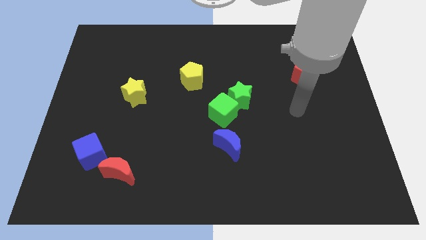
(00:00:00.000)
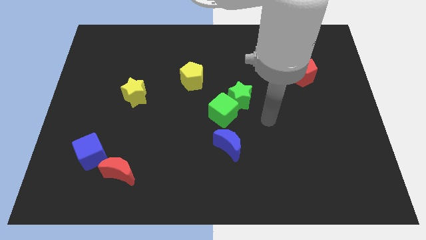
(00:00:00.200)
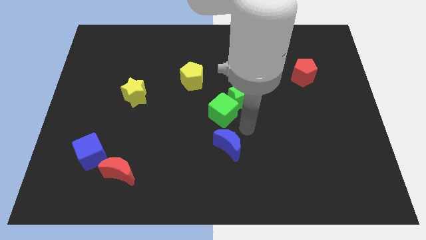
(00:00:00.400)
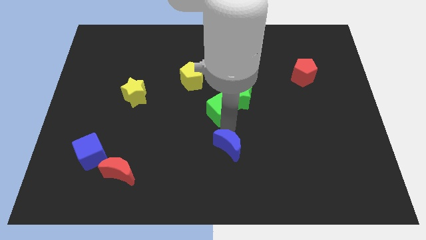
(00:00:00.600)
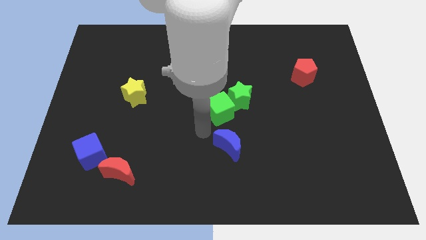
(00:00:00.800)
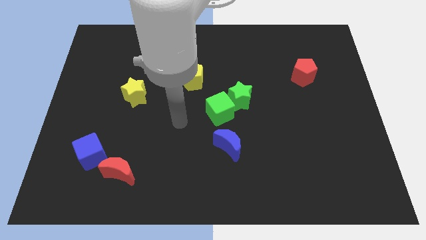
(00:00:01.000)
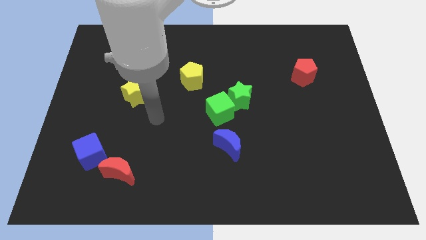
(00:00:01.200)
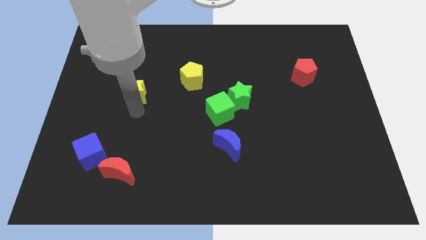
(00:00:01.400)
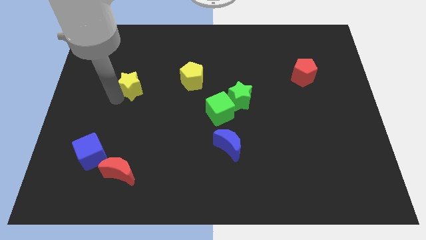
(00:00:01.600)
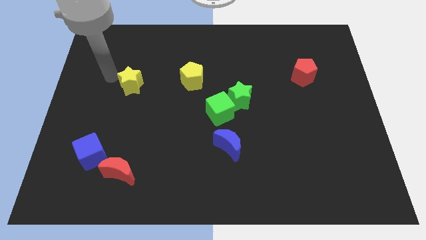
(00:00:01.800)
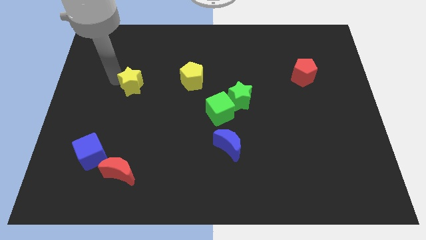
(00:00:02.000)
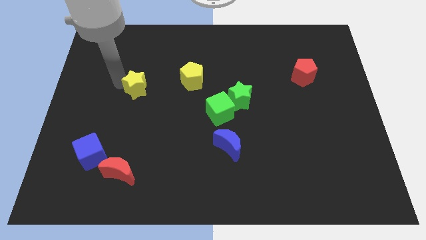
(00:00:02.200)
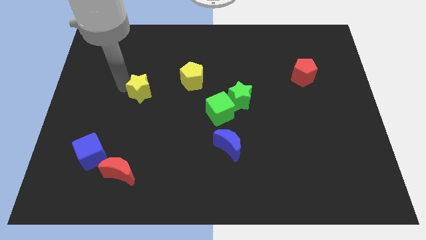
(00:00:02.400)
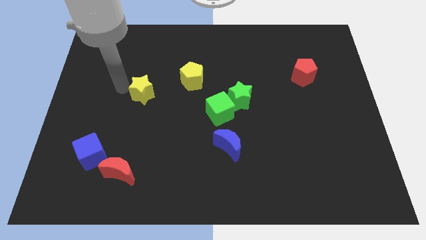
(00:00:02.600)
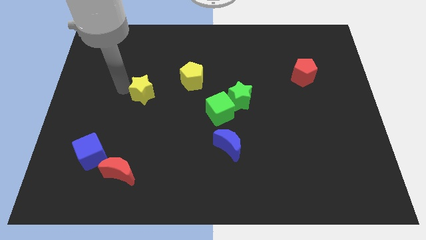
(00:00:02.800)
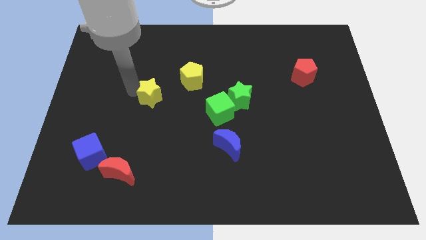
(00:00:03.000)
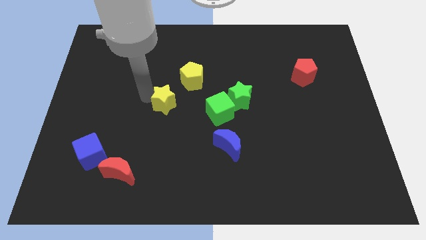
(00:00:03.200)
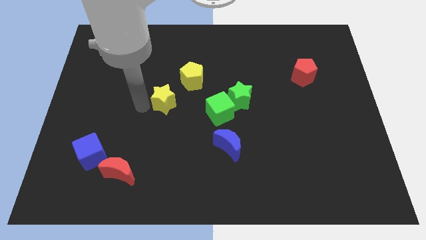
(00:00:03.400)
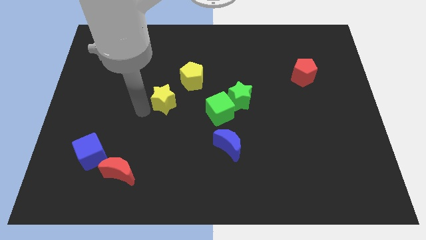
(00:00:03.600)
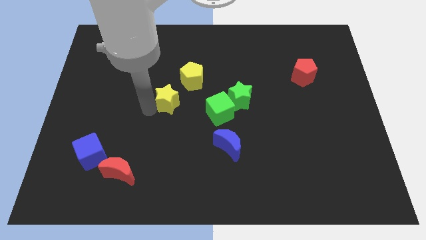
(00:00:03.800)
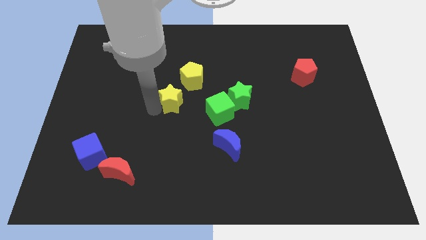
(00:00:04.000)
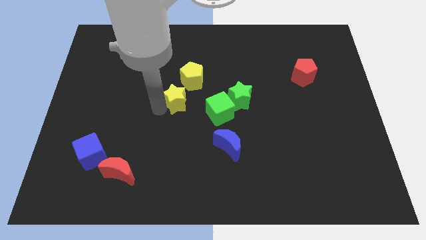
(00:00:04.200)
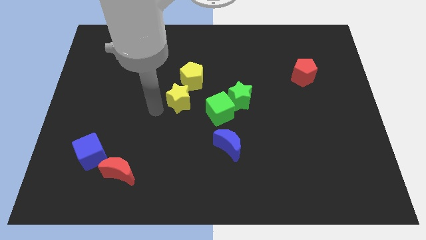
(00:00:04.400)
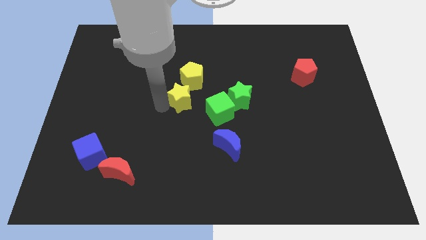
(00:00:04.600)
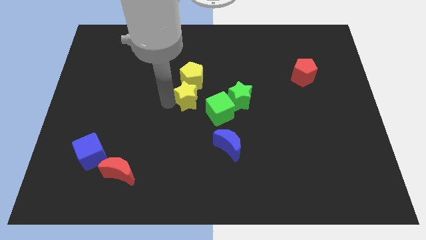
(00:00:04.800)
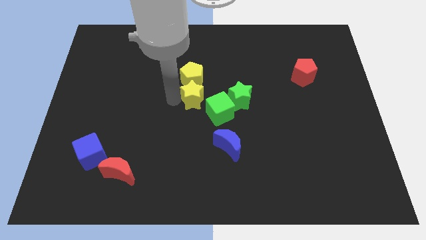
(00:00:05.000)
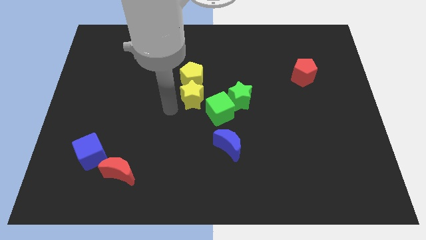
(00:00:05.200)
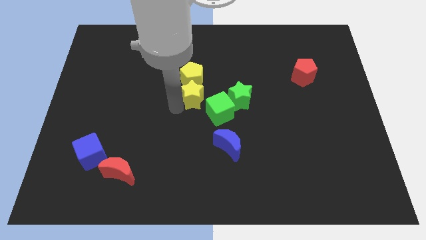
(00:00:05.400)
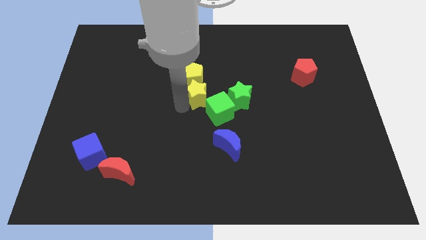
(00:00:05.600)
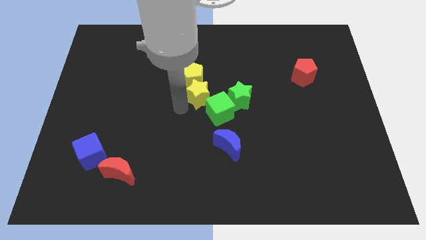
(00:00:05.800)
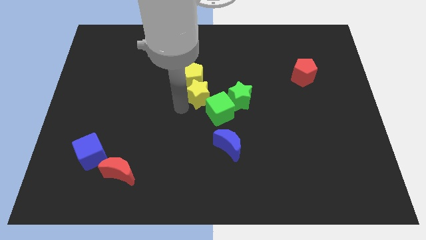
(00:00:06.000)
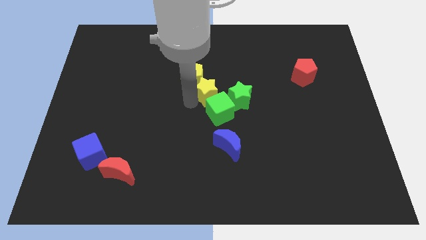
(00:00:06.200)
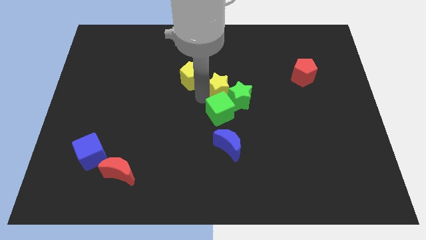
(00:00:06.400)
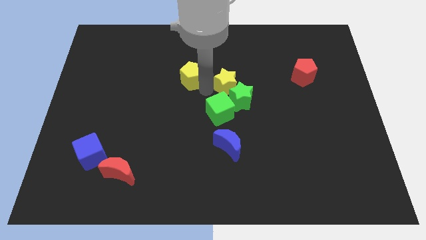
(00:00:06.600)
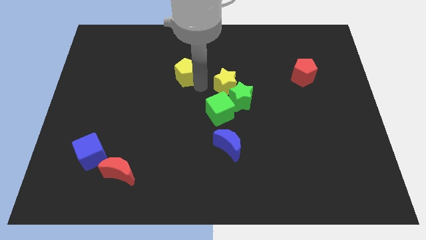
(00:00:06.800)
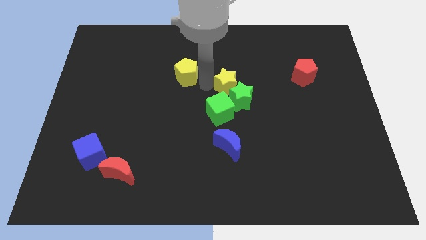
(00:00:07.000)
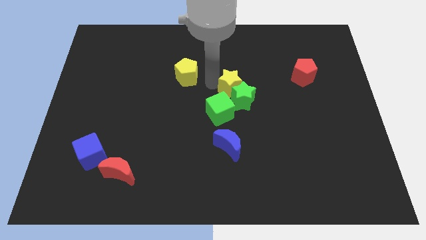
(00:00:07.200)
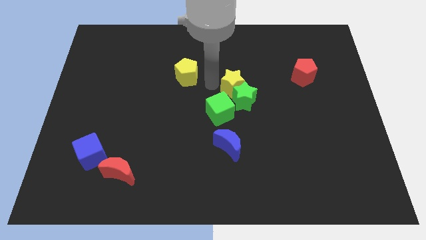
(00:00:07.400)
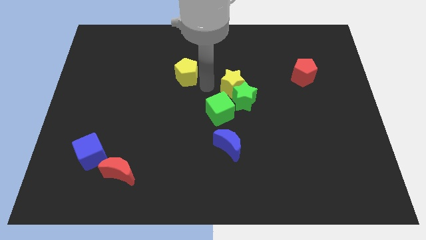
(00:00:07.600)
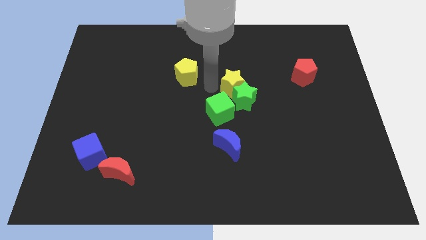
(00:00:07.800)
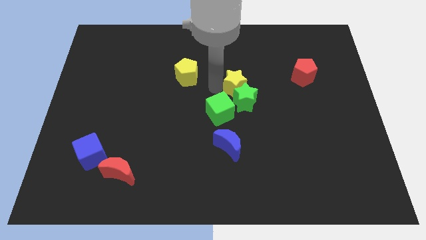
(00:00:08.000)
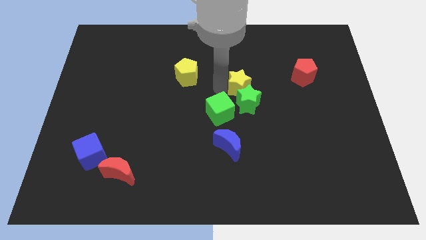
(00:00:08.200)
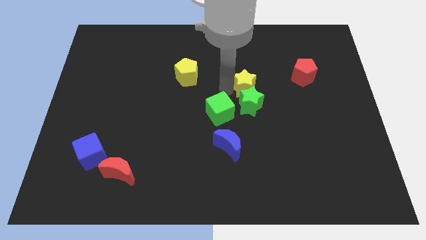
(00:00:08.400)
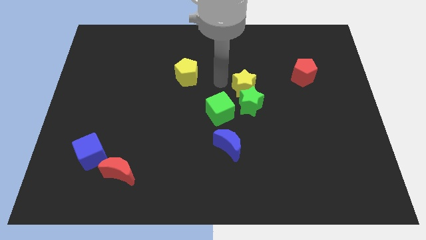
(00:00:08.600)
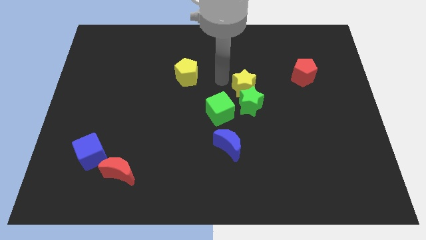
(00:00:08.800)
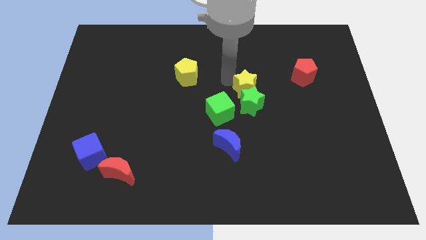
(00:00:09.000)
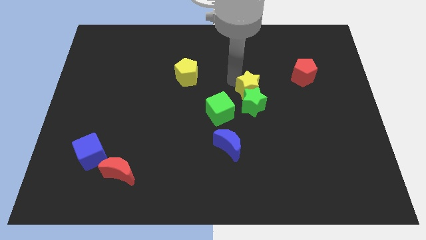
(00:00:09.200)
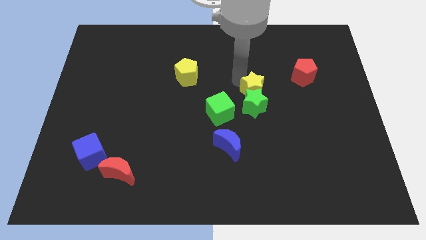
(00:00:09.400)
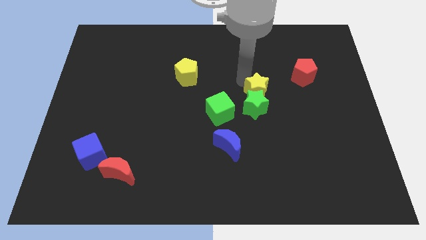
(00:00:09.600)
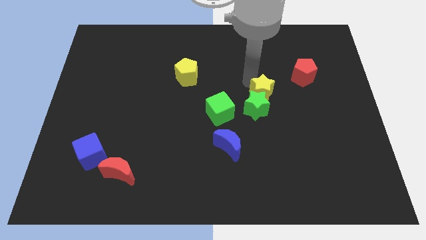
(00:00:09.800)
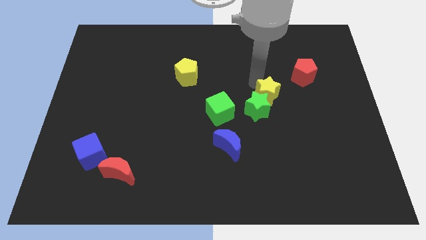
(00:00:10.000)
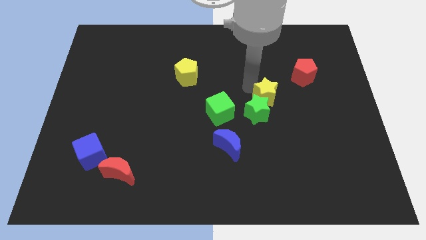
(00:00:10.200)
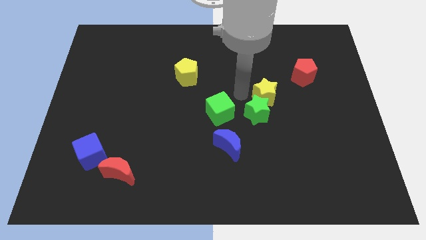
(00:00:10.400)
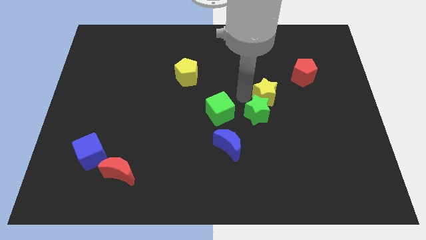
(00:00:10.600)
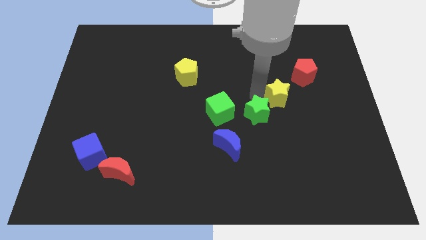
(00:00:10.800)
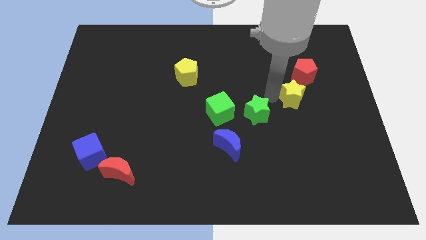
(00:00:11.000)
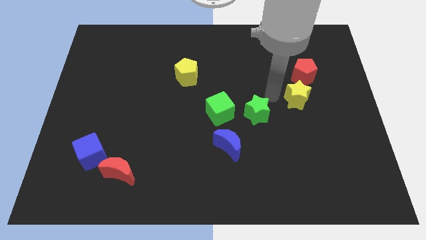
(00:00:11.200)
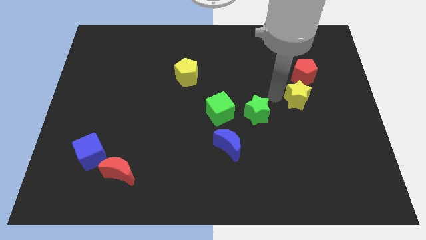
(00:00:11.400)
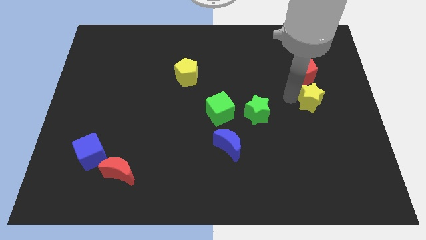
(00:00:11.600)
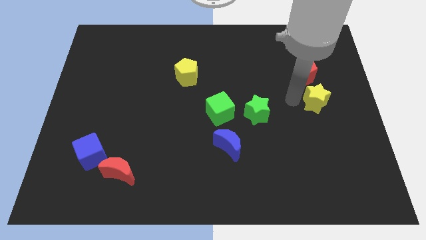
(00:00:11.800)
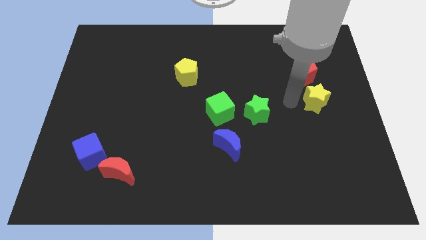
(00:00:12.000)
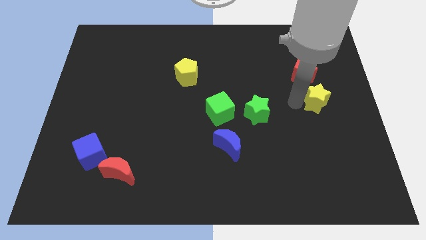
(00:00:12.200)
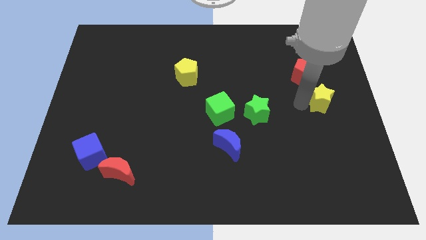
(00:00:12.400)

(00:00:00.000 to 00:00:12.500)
put the yellow star to the right side
